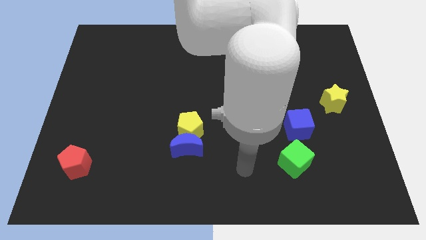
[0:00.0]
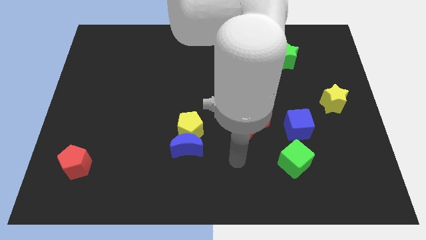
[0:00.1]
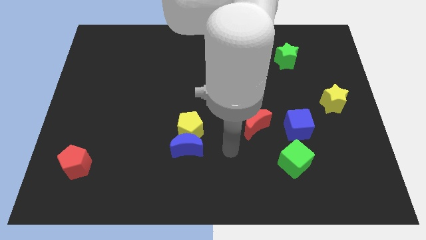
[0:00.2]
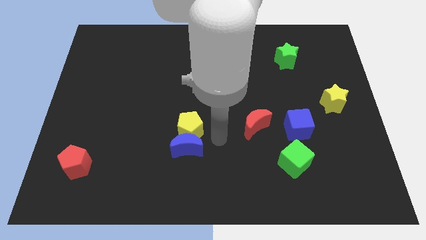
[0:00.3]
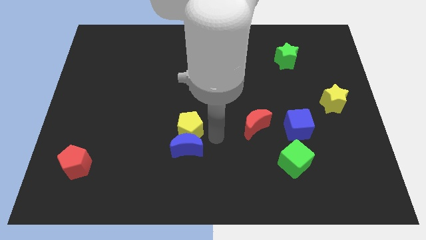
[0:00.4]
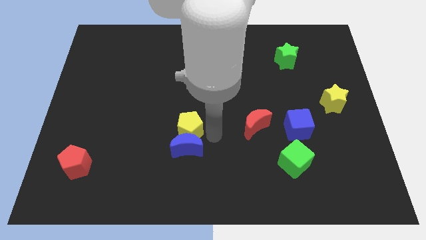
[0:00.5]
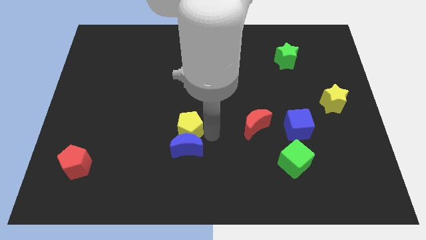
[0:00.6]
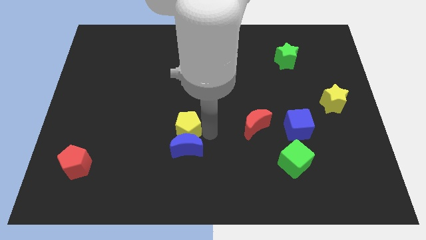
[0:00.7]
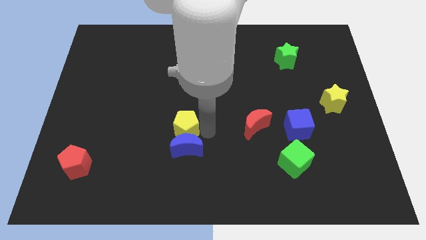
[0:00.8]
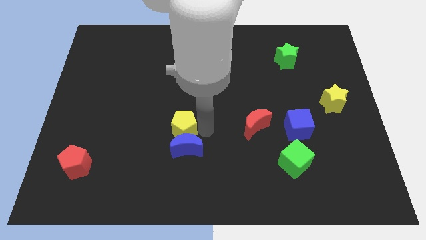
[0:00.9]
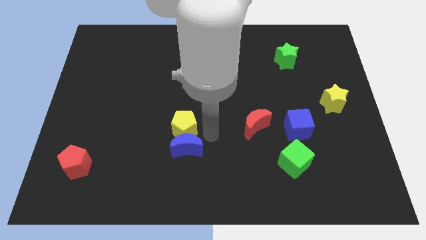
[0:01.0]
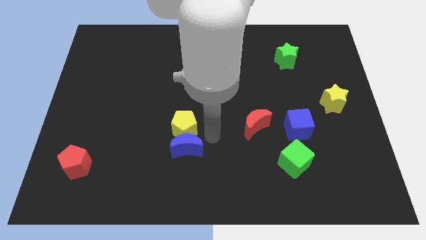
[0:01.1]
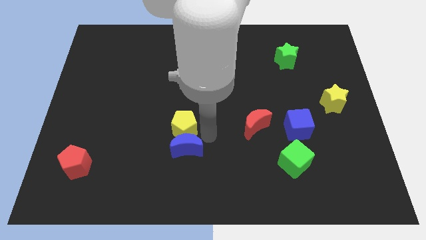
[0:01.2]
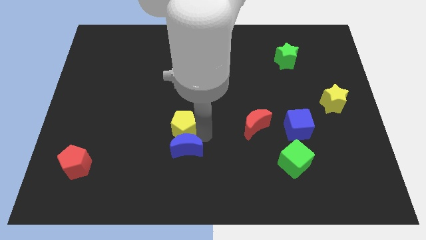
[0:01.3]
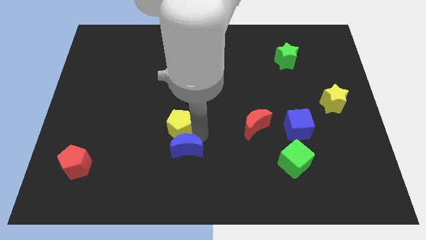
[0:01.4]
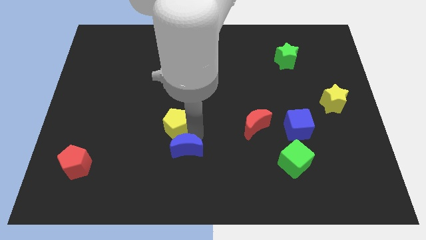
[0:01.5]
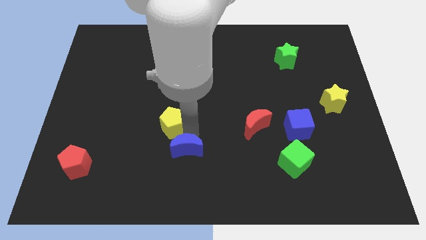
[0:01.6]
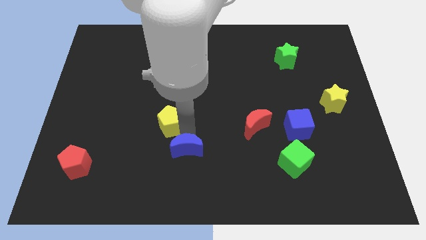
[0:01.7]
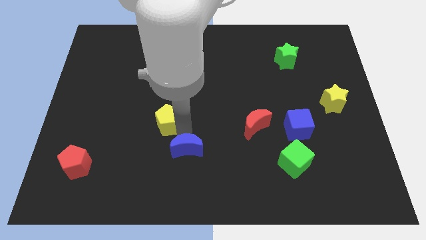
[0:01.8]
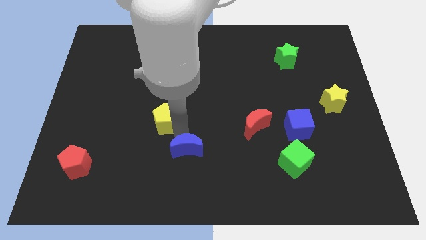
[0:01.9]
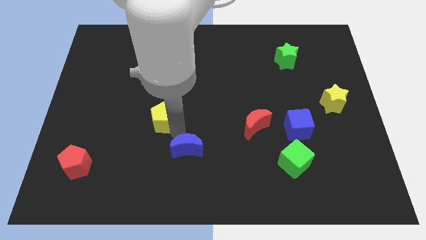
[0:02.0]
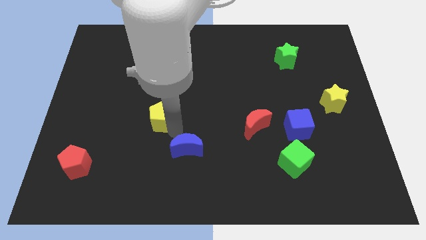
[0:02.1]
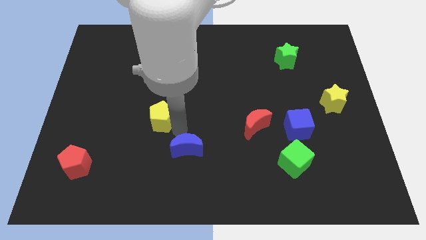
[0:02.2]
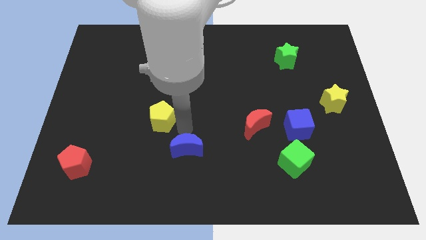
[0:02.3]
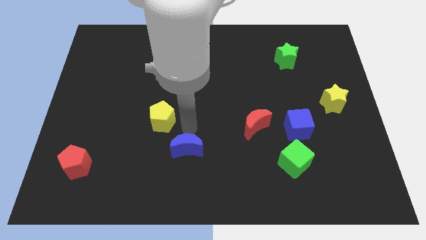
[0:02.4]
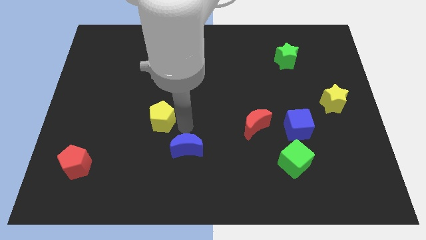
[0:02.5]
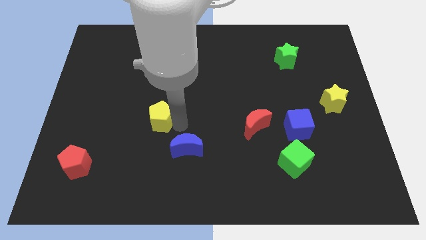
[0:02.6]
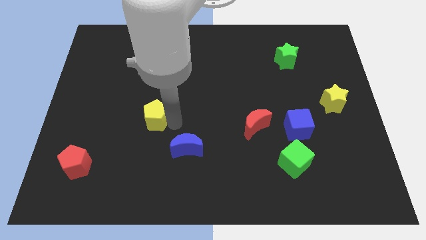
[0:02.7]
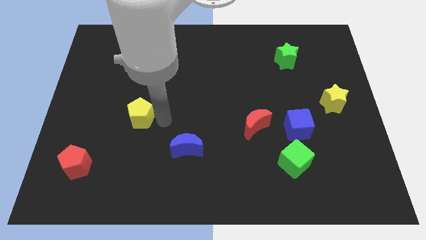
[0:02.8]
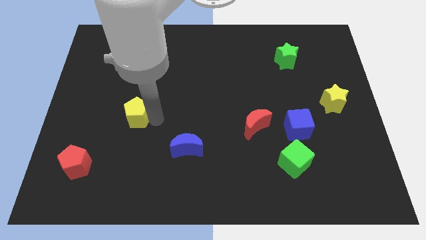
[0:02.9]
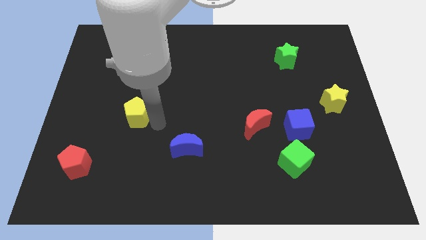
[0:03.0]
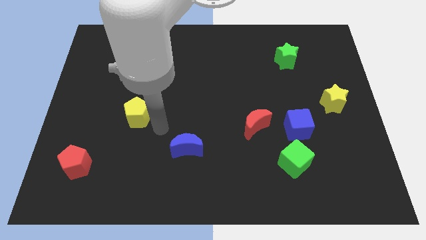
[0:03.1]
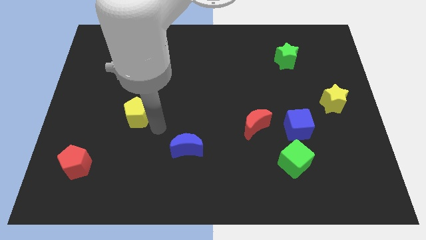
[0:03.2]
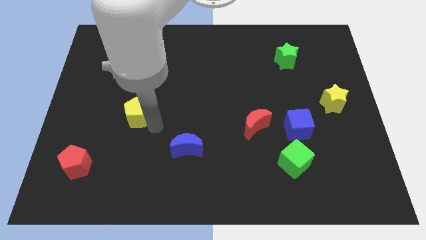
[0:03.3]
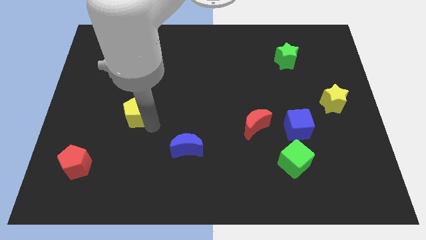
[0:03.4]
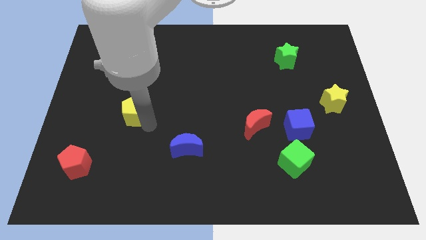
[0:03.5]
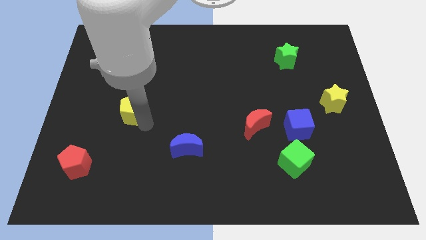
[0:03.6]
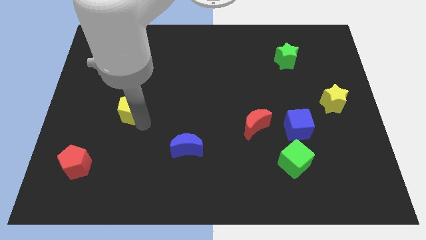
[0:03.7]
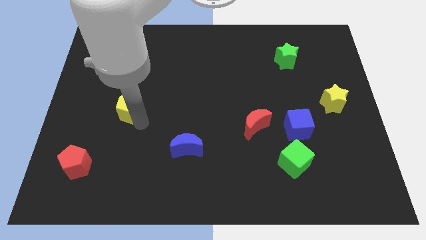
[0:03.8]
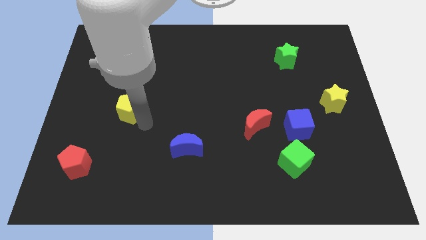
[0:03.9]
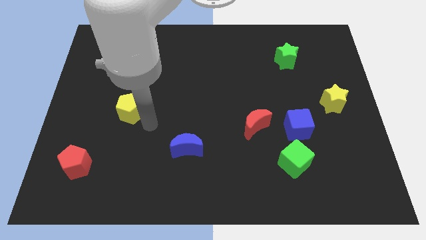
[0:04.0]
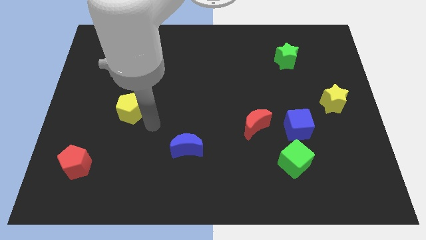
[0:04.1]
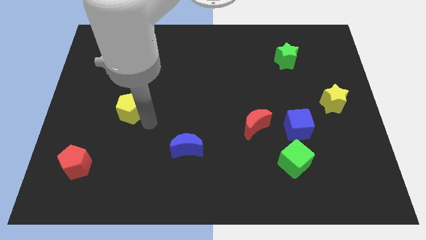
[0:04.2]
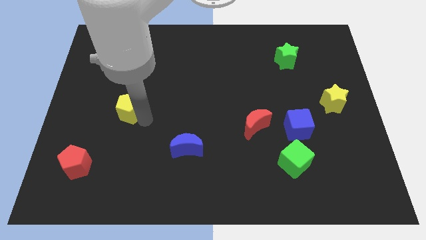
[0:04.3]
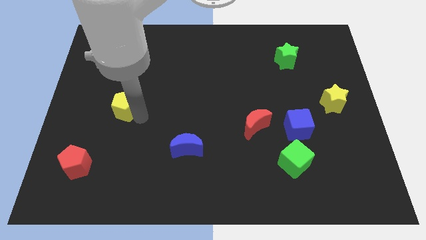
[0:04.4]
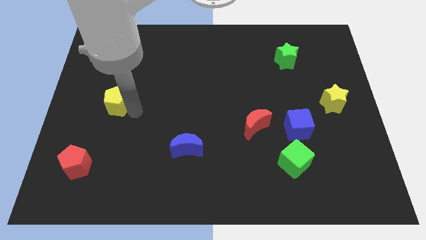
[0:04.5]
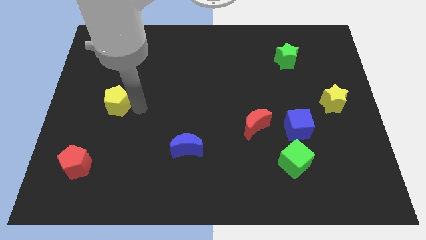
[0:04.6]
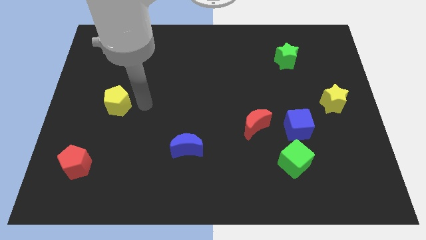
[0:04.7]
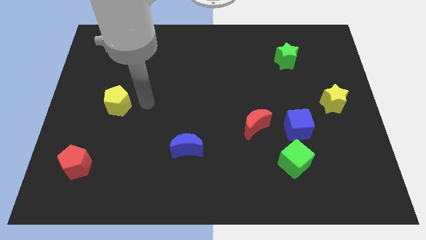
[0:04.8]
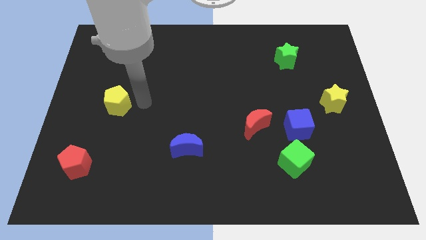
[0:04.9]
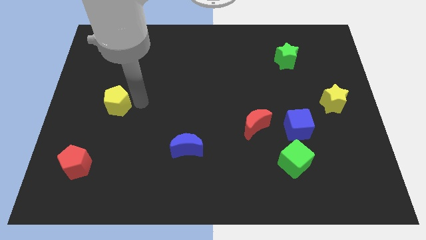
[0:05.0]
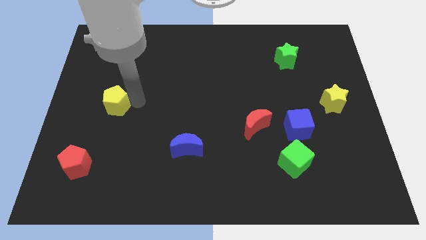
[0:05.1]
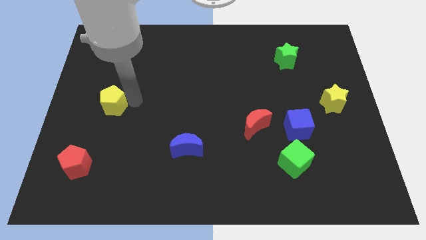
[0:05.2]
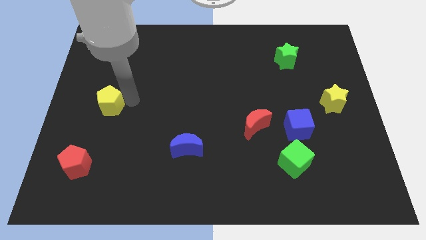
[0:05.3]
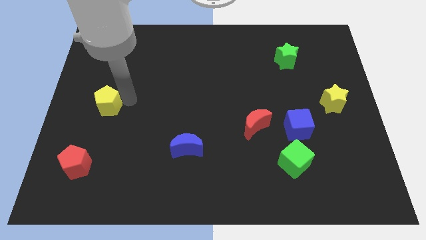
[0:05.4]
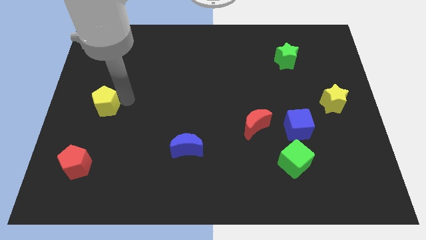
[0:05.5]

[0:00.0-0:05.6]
slide the yellow pentagon to the left side

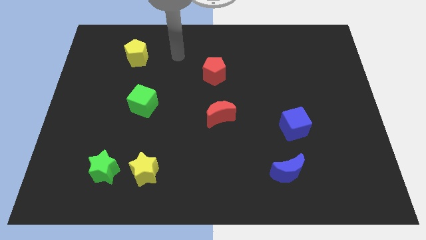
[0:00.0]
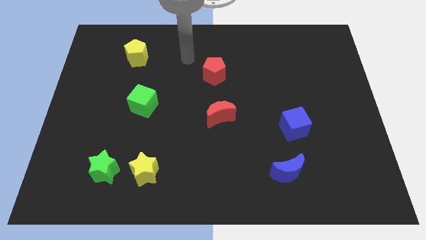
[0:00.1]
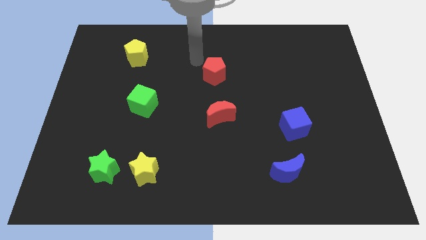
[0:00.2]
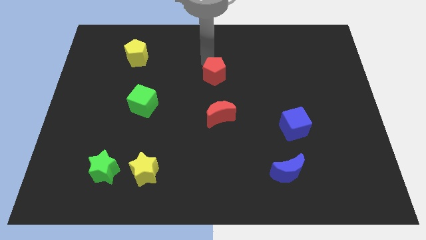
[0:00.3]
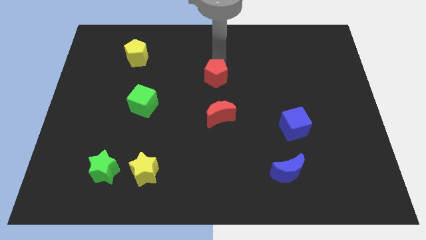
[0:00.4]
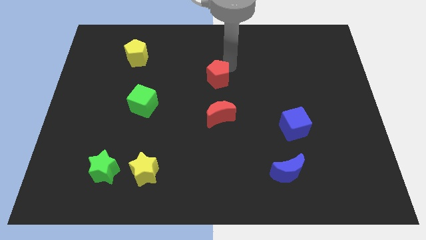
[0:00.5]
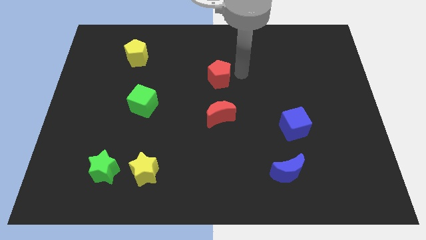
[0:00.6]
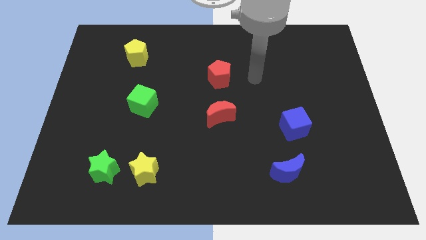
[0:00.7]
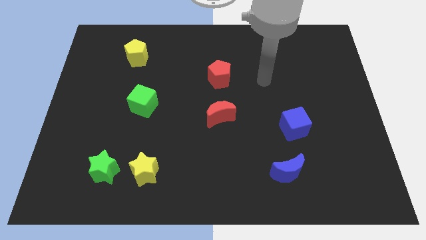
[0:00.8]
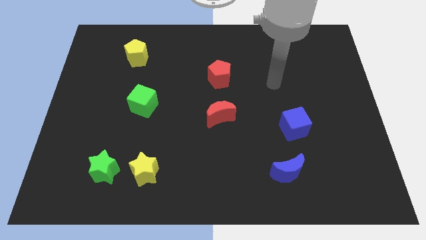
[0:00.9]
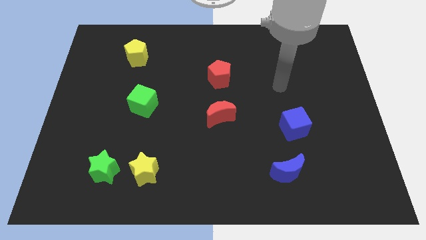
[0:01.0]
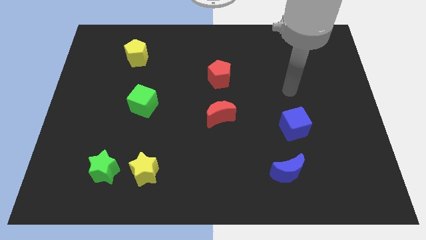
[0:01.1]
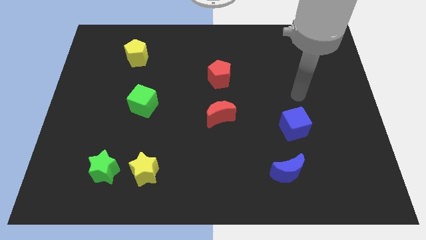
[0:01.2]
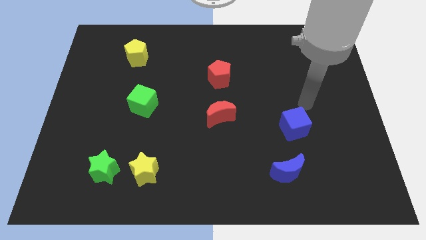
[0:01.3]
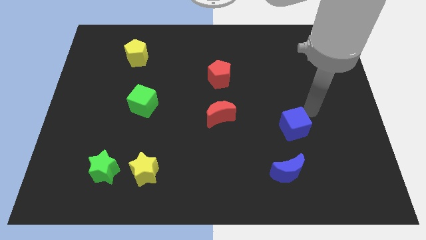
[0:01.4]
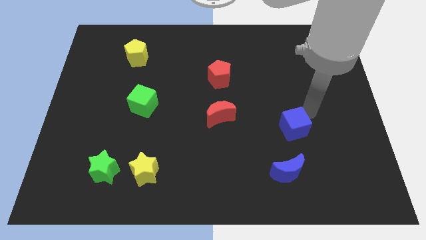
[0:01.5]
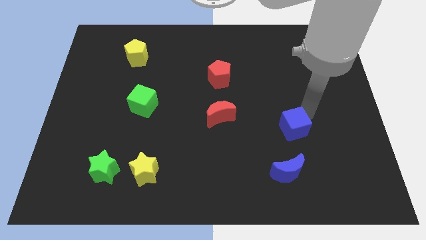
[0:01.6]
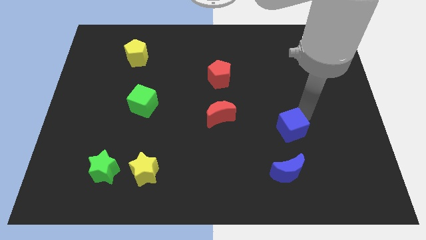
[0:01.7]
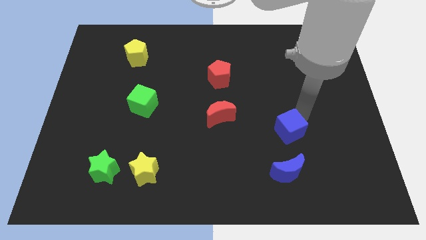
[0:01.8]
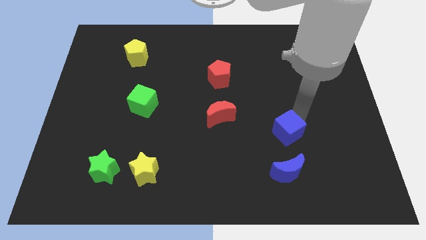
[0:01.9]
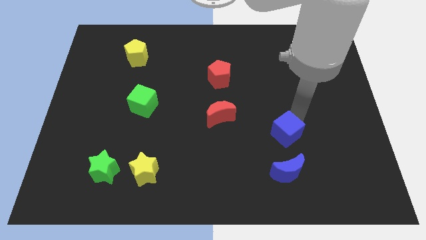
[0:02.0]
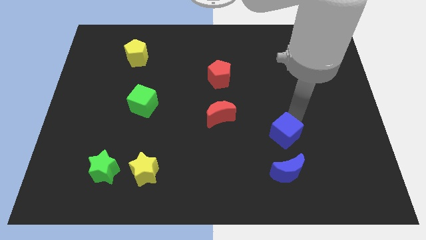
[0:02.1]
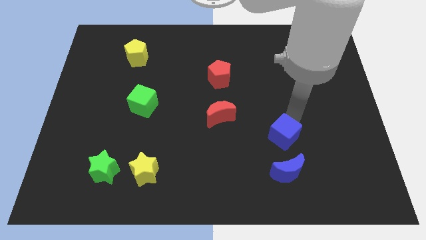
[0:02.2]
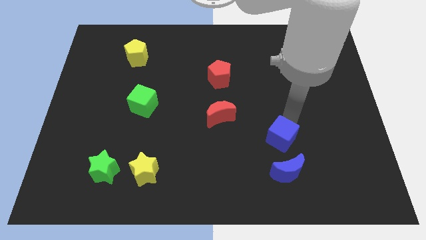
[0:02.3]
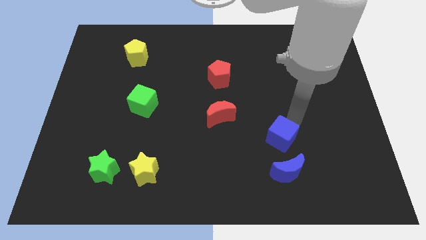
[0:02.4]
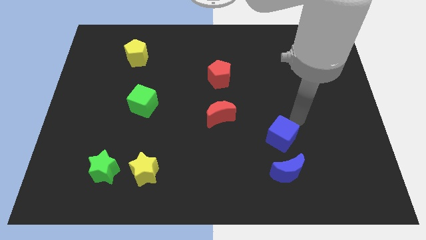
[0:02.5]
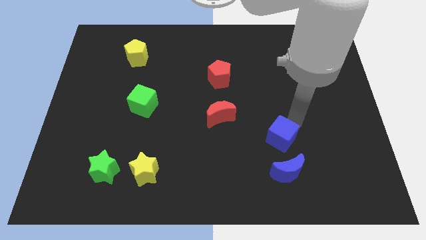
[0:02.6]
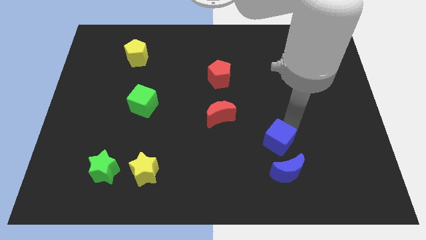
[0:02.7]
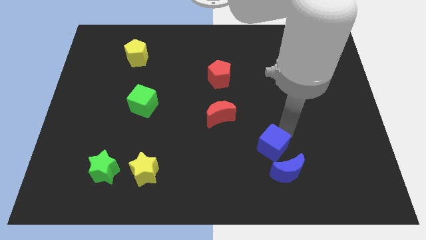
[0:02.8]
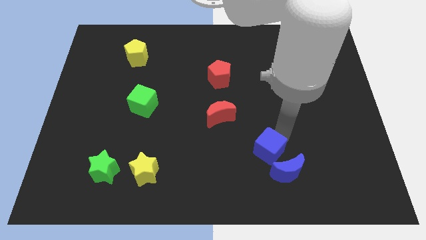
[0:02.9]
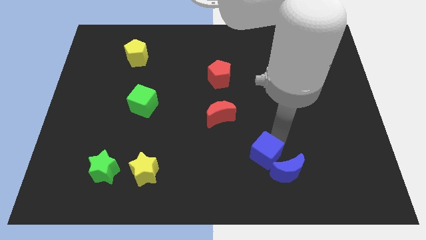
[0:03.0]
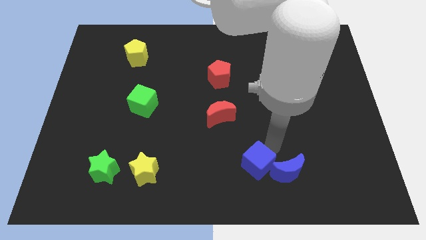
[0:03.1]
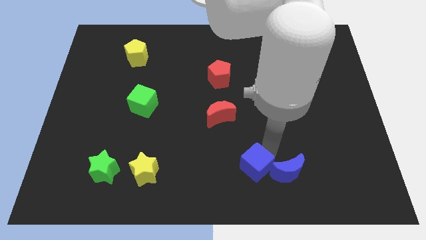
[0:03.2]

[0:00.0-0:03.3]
put the blue cube to the bottom
